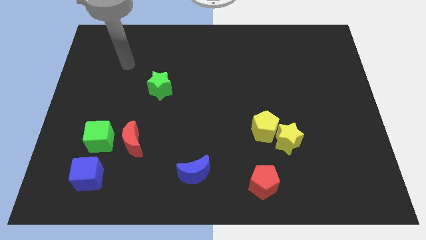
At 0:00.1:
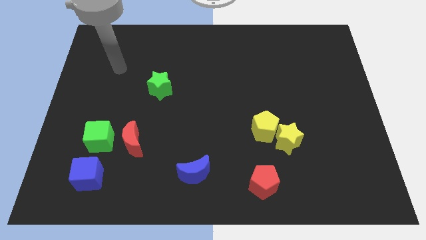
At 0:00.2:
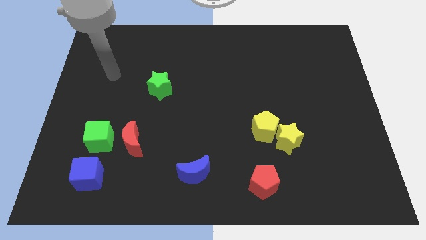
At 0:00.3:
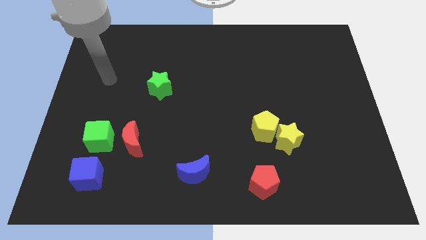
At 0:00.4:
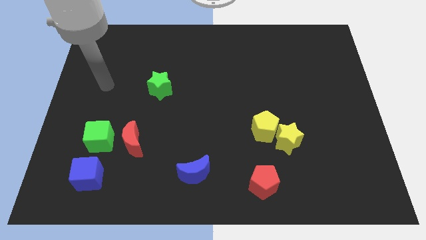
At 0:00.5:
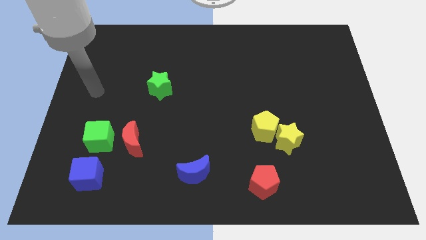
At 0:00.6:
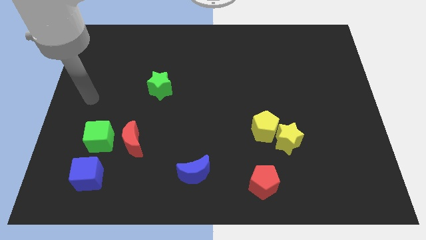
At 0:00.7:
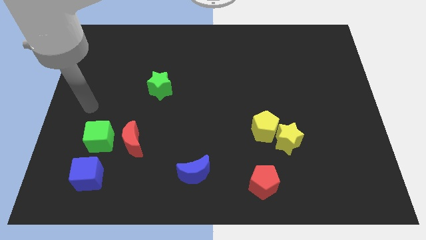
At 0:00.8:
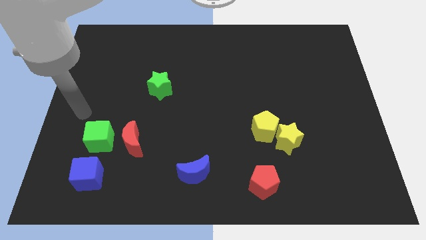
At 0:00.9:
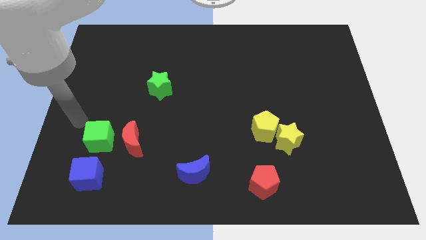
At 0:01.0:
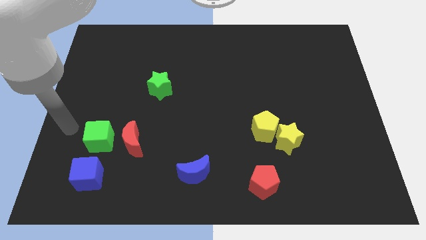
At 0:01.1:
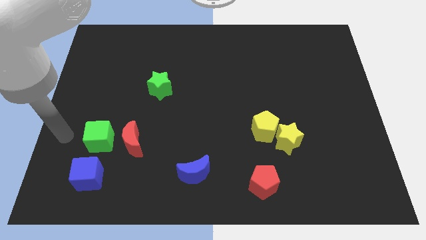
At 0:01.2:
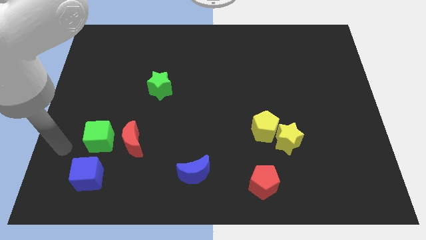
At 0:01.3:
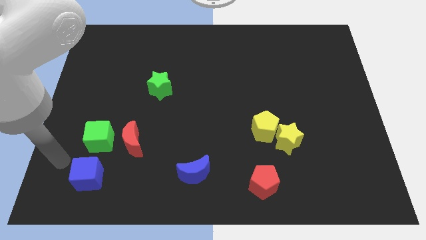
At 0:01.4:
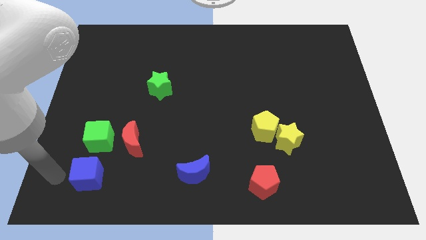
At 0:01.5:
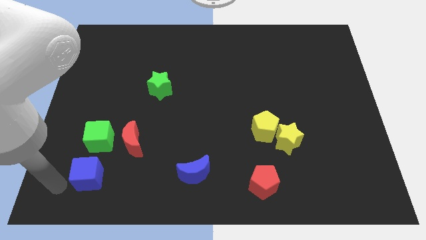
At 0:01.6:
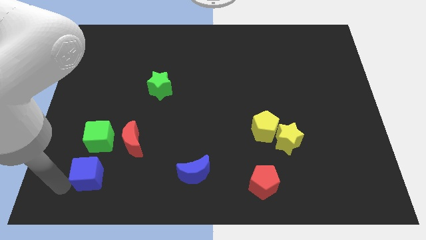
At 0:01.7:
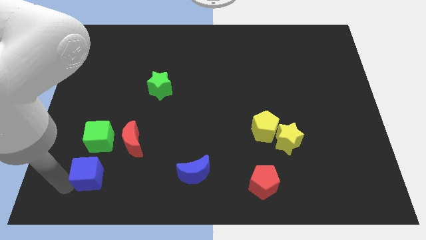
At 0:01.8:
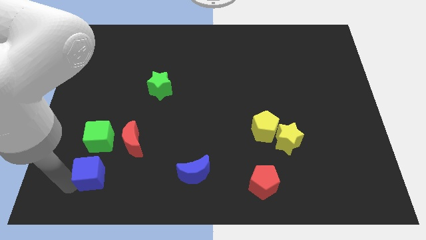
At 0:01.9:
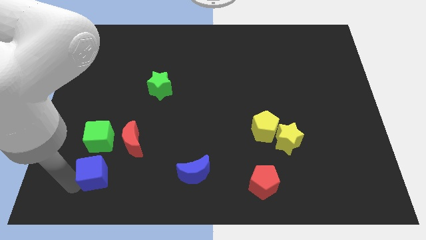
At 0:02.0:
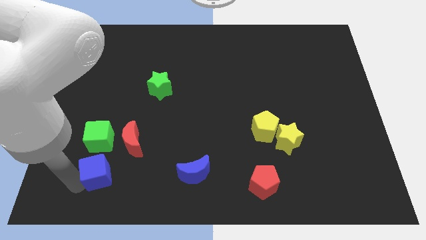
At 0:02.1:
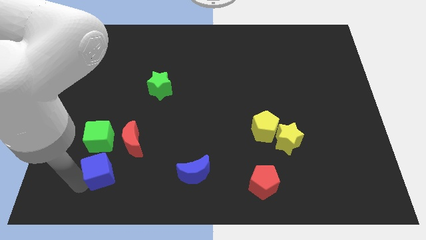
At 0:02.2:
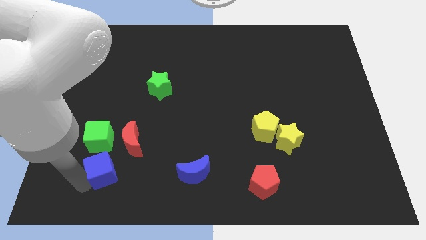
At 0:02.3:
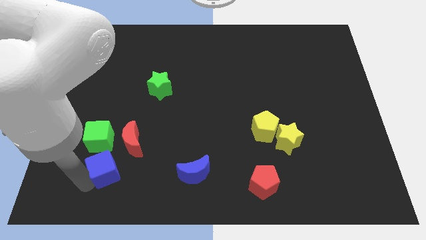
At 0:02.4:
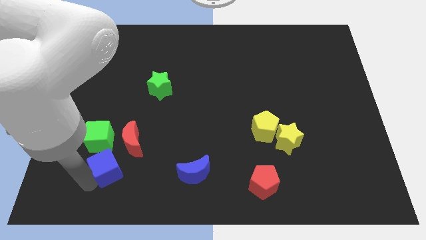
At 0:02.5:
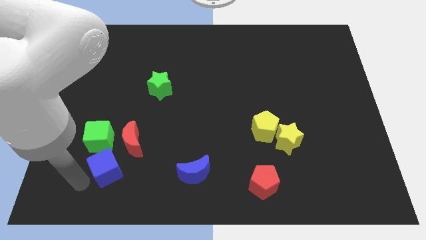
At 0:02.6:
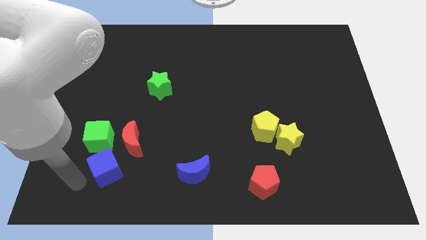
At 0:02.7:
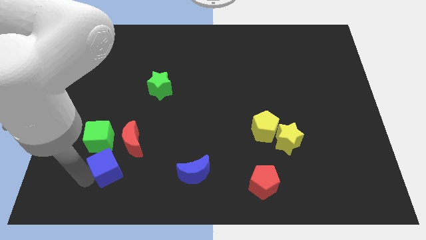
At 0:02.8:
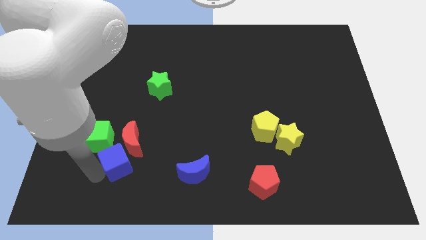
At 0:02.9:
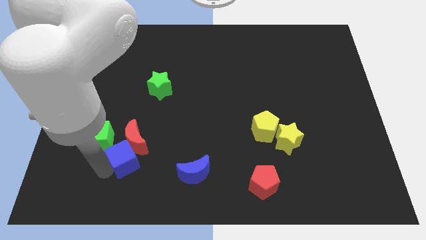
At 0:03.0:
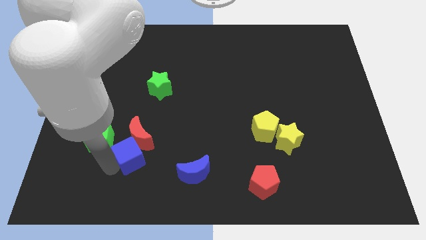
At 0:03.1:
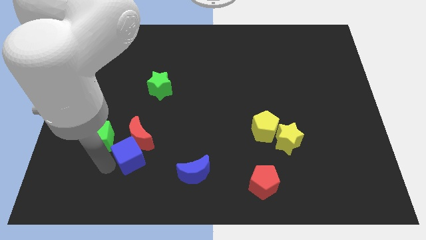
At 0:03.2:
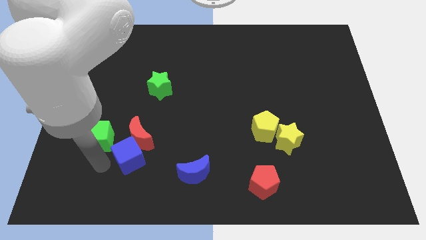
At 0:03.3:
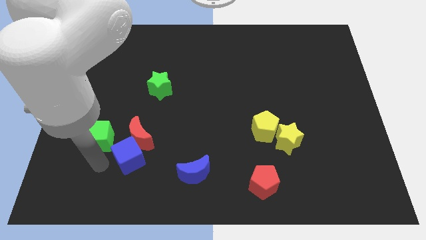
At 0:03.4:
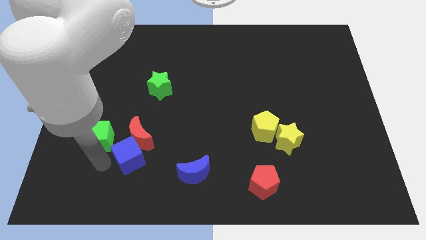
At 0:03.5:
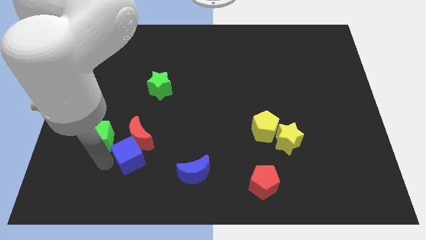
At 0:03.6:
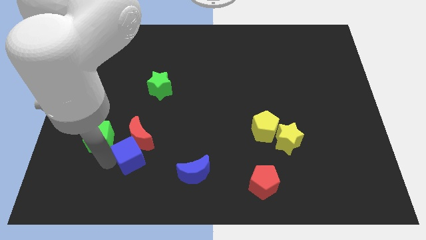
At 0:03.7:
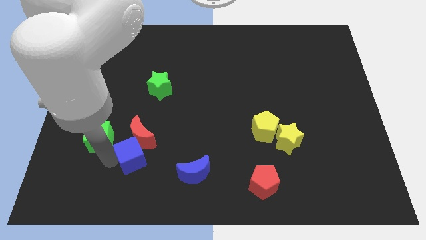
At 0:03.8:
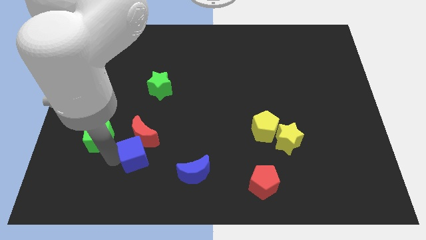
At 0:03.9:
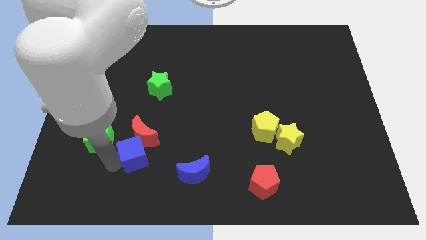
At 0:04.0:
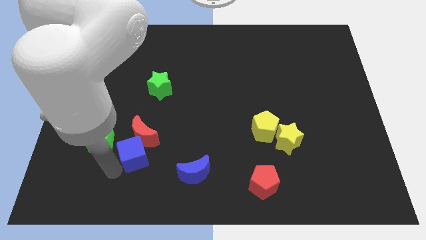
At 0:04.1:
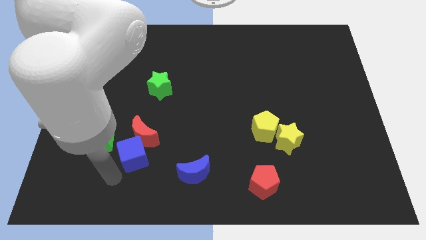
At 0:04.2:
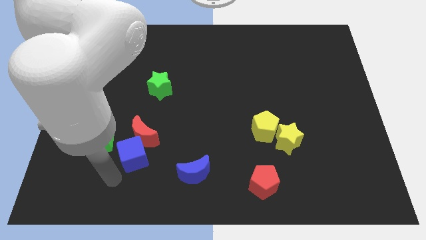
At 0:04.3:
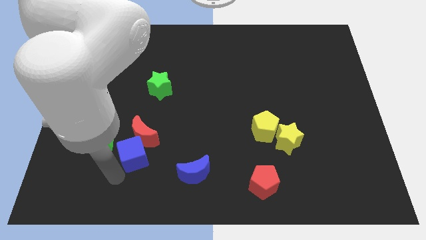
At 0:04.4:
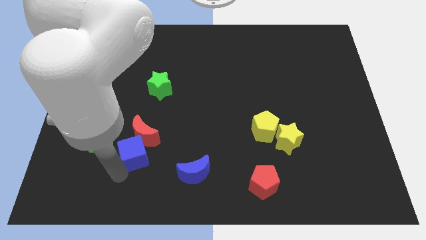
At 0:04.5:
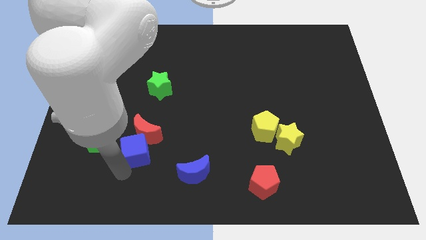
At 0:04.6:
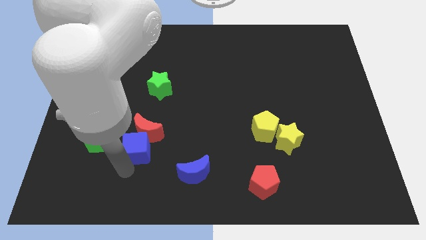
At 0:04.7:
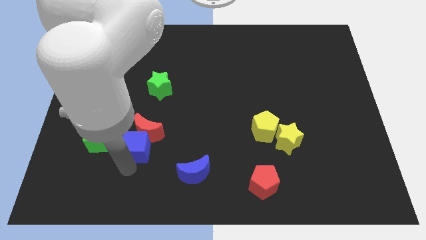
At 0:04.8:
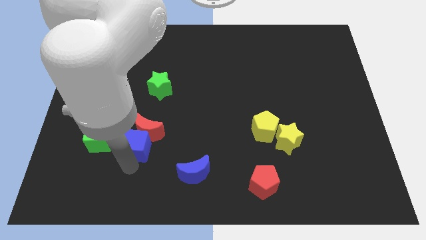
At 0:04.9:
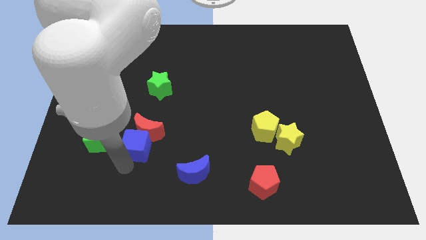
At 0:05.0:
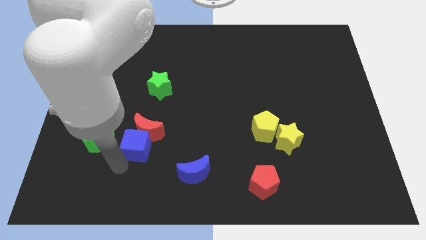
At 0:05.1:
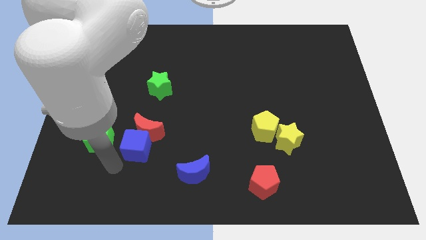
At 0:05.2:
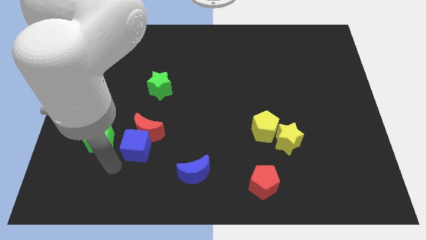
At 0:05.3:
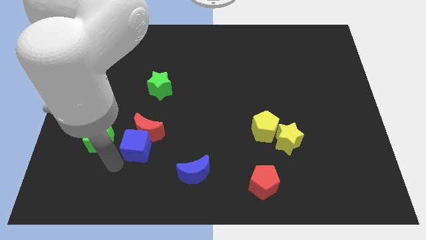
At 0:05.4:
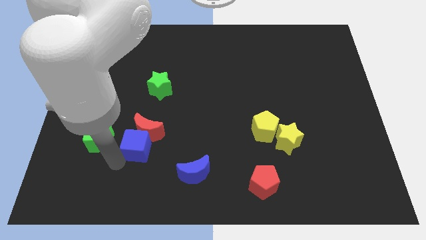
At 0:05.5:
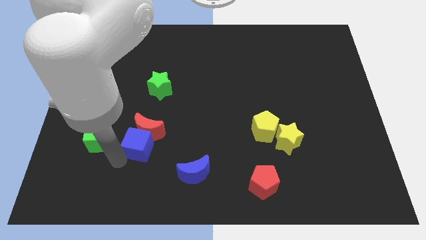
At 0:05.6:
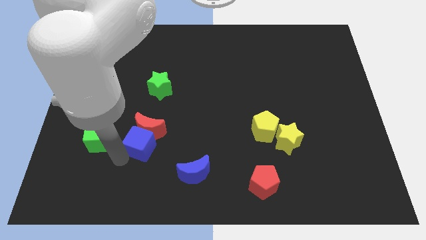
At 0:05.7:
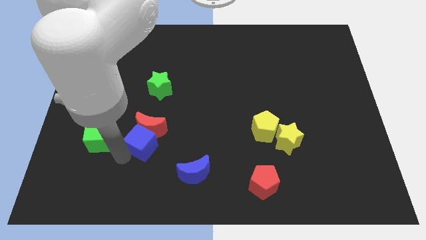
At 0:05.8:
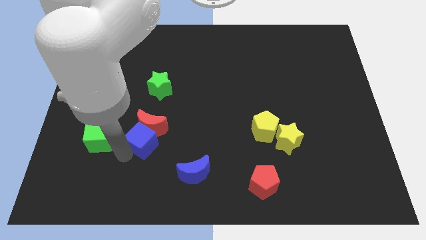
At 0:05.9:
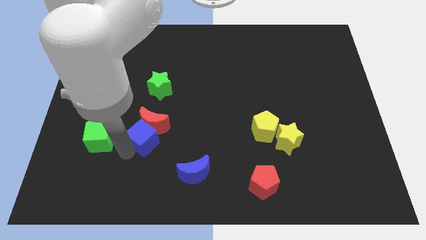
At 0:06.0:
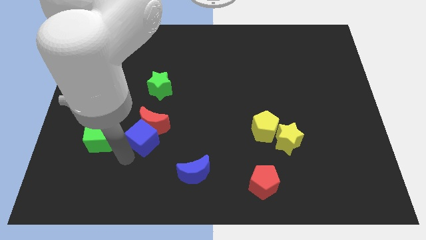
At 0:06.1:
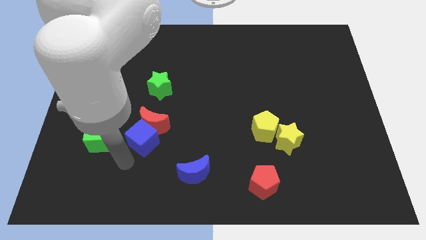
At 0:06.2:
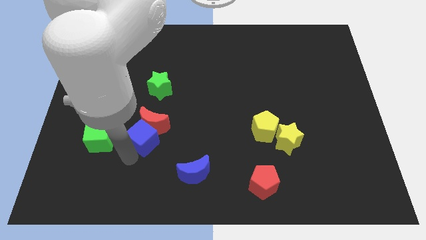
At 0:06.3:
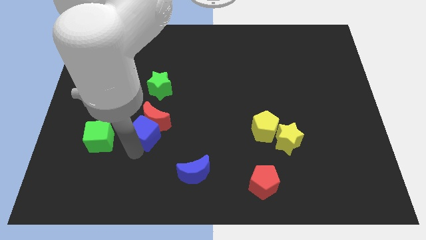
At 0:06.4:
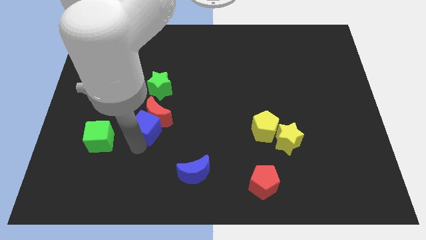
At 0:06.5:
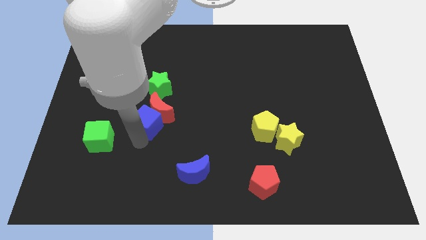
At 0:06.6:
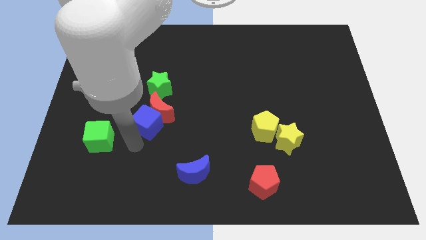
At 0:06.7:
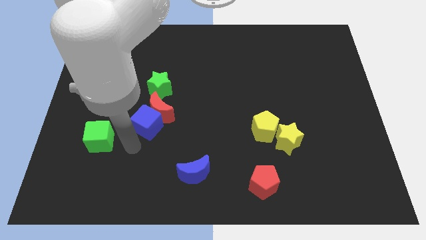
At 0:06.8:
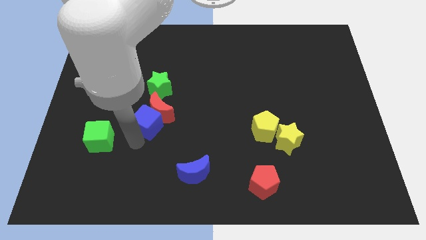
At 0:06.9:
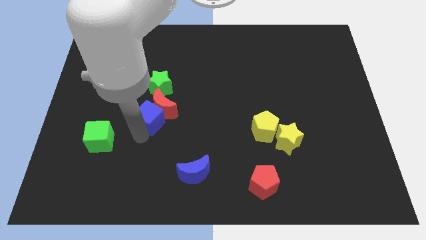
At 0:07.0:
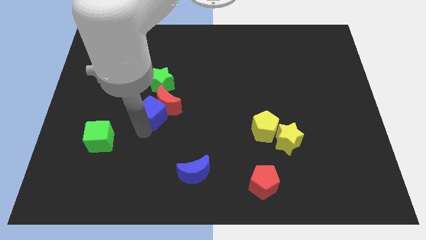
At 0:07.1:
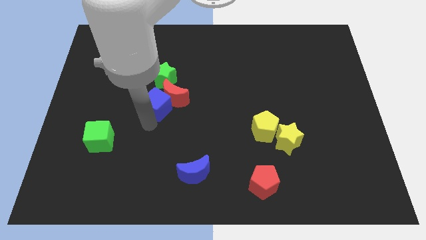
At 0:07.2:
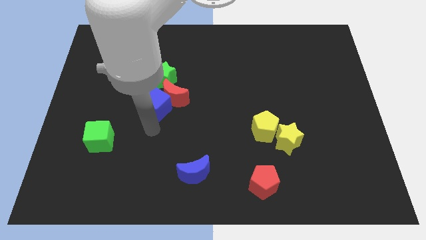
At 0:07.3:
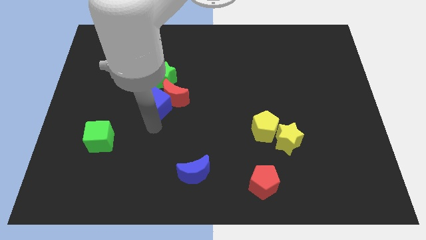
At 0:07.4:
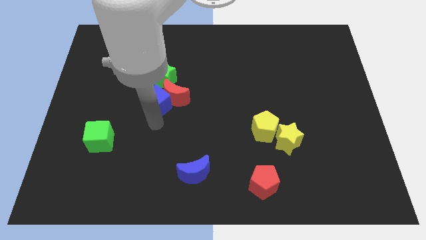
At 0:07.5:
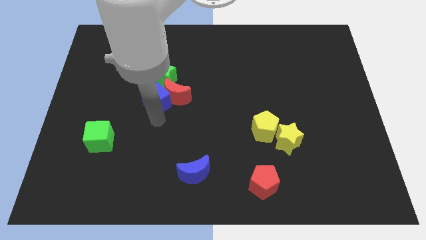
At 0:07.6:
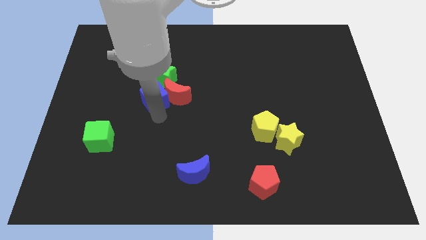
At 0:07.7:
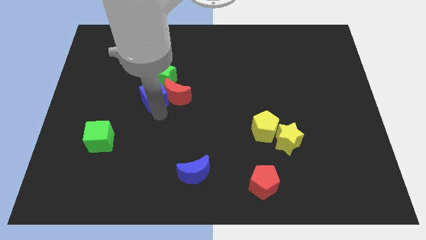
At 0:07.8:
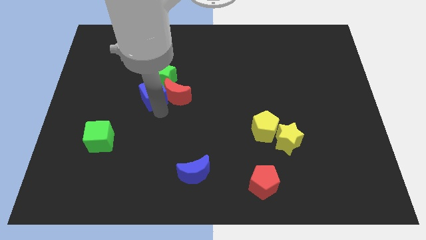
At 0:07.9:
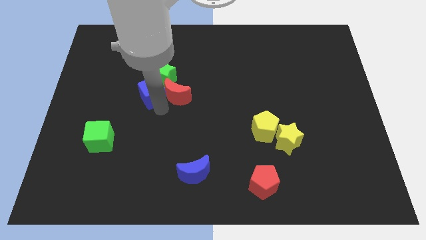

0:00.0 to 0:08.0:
push the blue cube next to the green star
